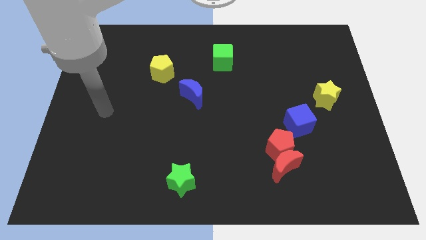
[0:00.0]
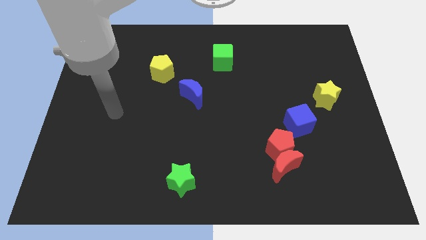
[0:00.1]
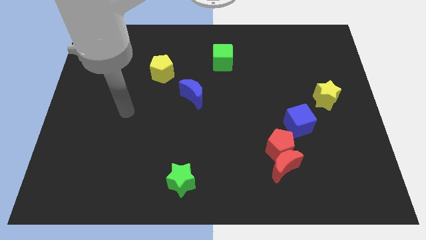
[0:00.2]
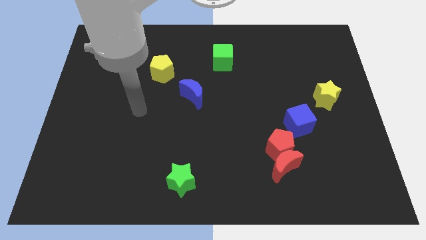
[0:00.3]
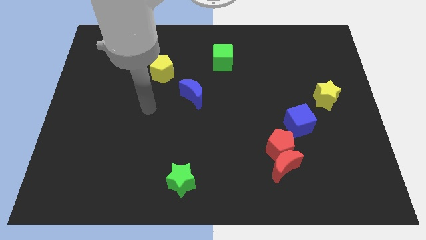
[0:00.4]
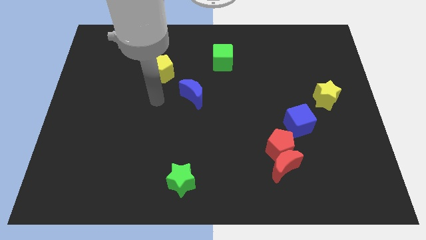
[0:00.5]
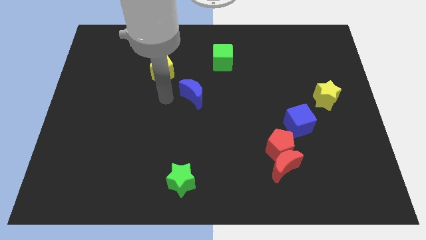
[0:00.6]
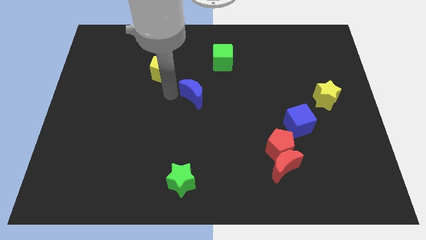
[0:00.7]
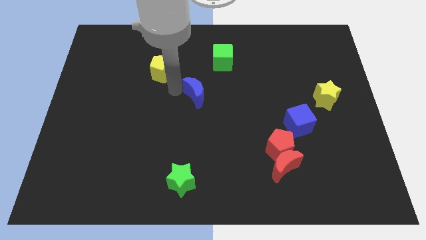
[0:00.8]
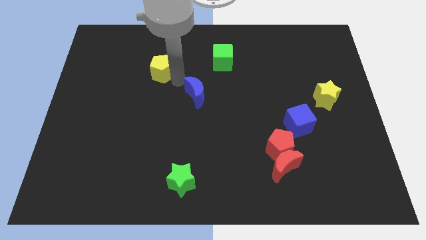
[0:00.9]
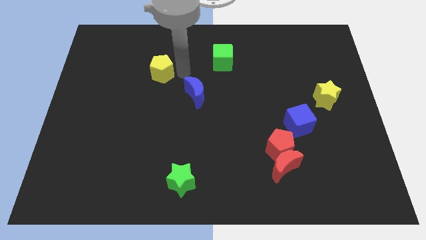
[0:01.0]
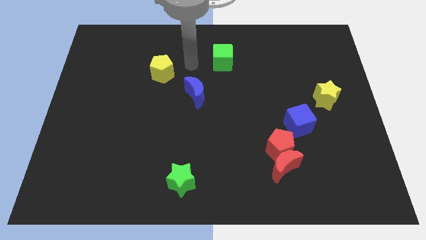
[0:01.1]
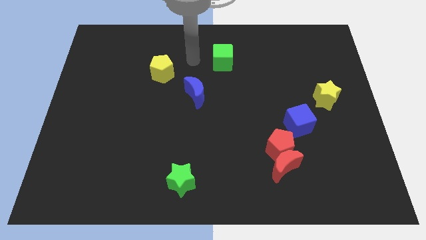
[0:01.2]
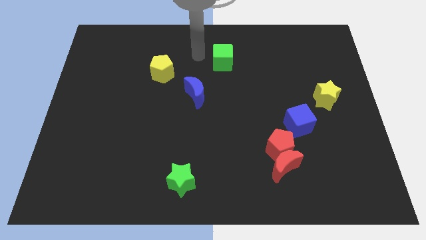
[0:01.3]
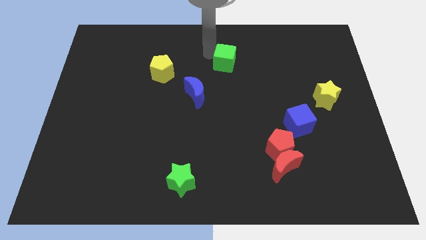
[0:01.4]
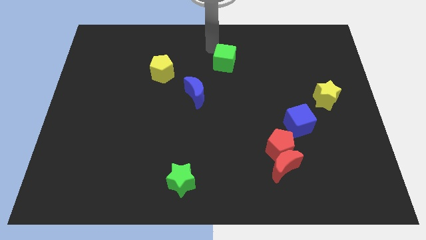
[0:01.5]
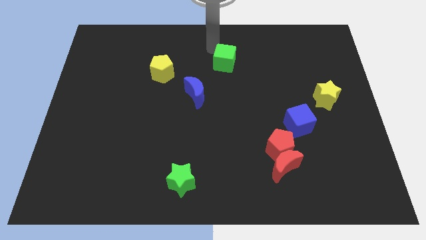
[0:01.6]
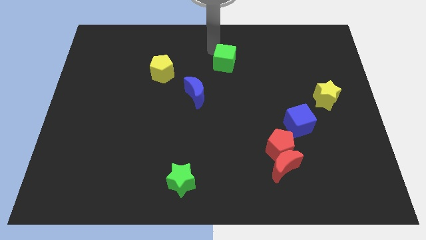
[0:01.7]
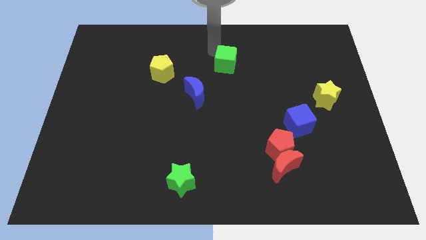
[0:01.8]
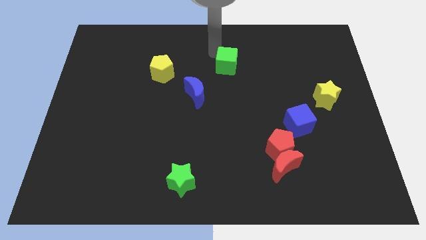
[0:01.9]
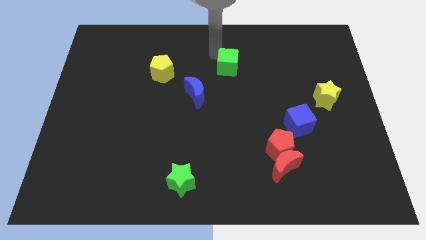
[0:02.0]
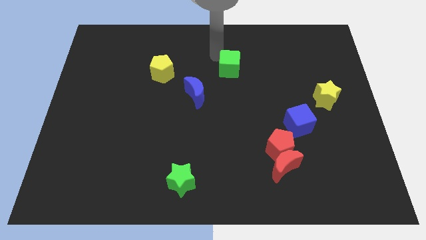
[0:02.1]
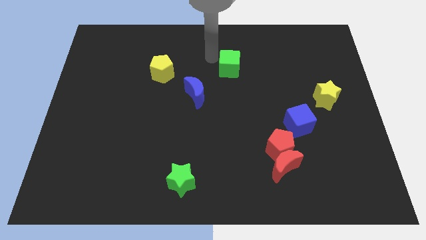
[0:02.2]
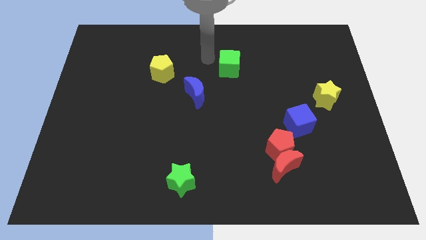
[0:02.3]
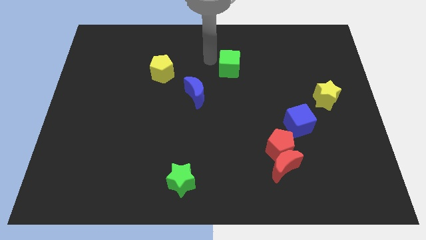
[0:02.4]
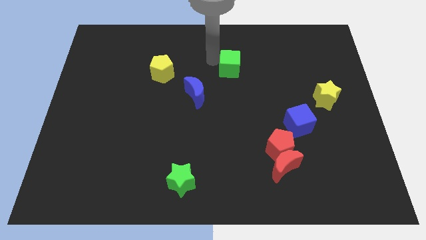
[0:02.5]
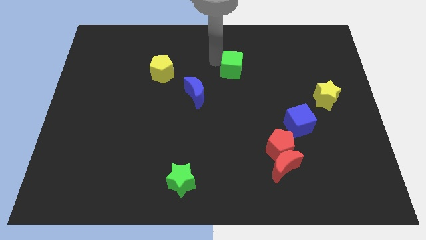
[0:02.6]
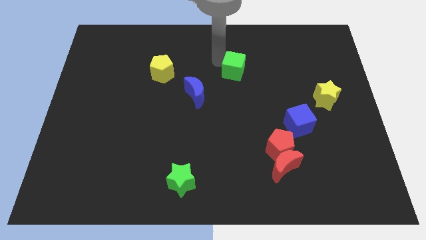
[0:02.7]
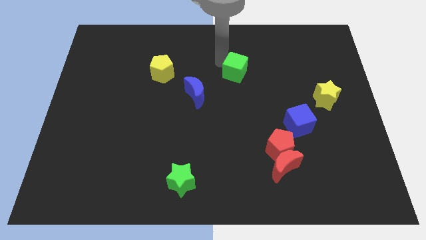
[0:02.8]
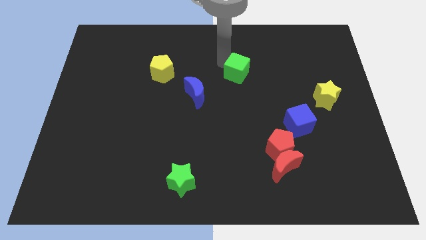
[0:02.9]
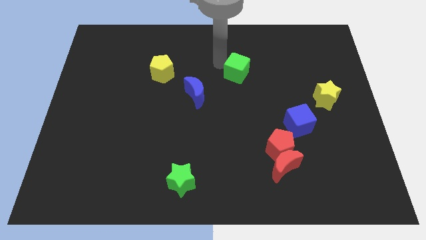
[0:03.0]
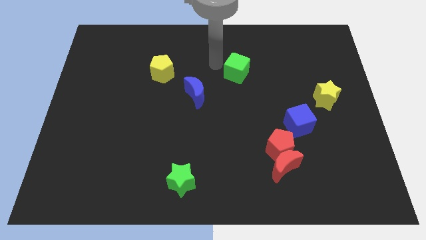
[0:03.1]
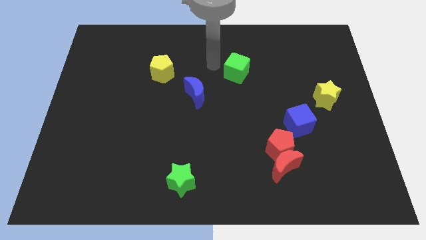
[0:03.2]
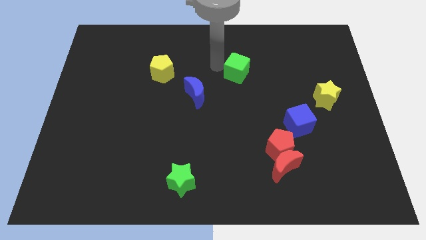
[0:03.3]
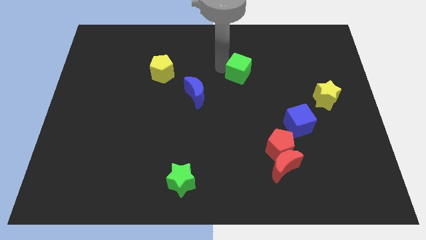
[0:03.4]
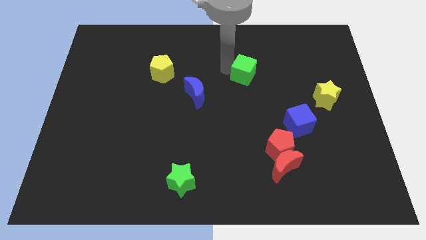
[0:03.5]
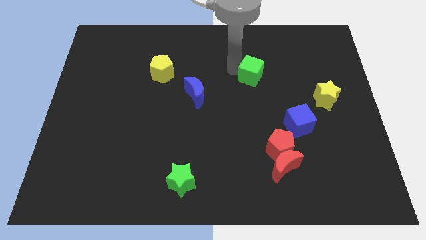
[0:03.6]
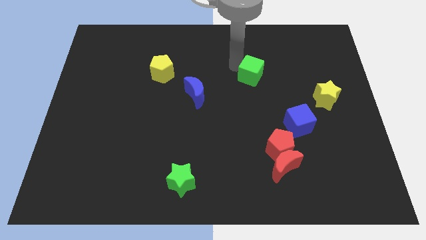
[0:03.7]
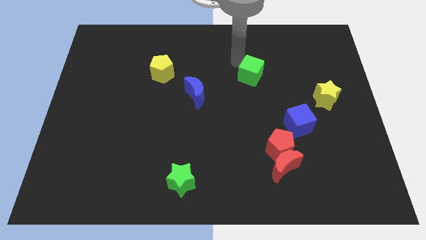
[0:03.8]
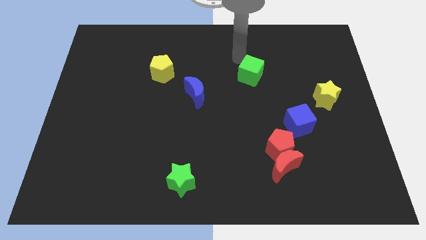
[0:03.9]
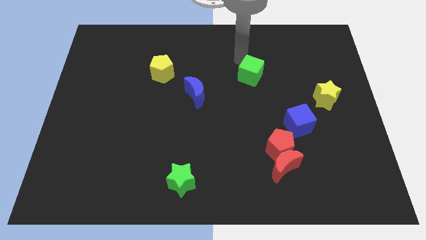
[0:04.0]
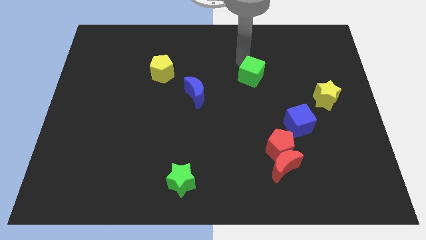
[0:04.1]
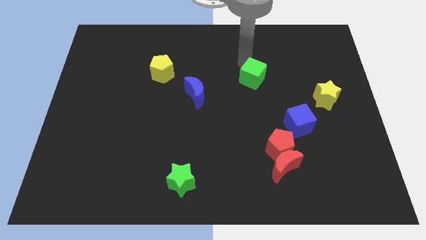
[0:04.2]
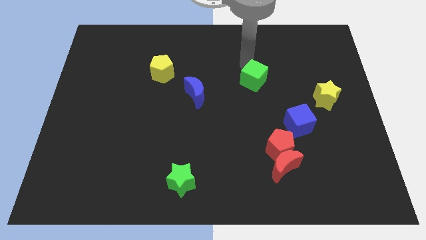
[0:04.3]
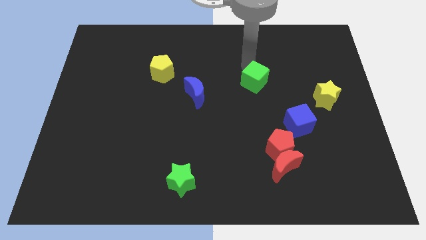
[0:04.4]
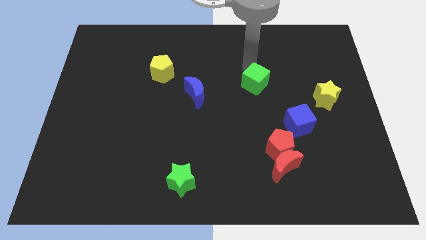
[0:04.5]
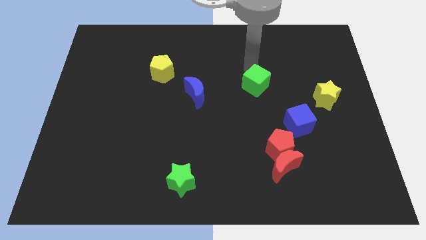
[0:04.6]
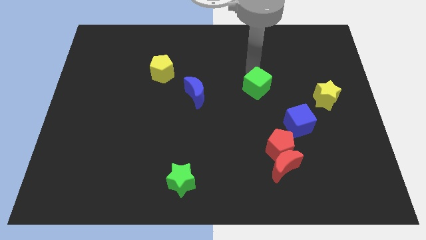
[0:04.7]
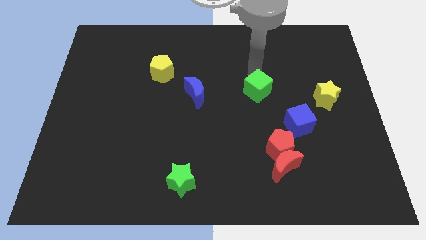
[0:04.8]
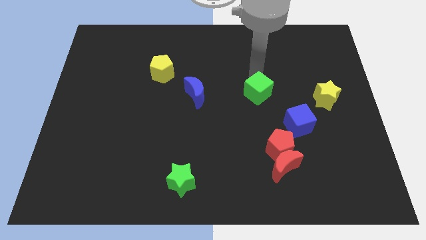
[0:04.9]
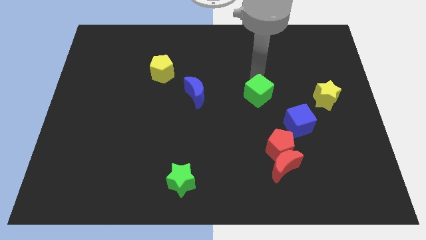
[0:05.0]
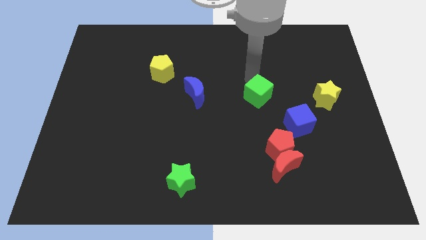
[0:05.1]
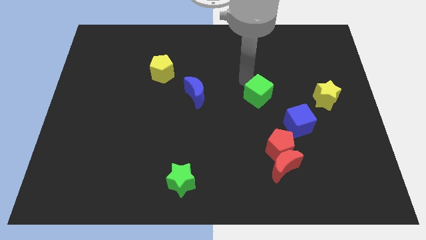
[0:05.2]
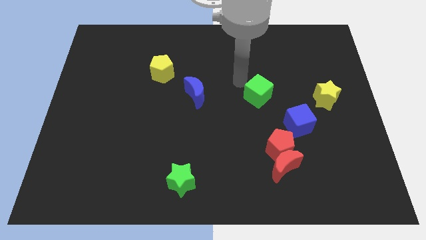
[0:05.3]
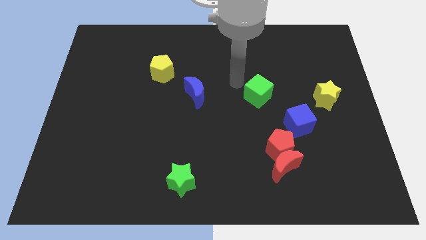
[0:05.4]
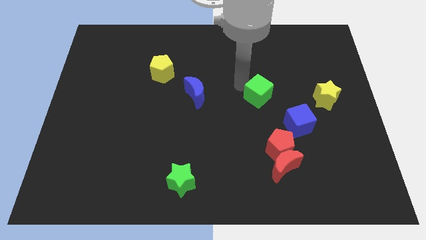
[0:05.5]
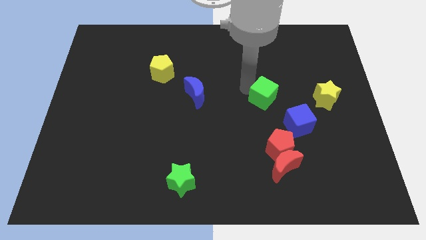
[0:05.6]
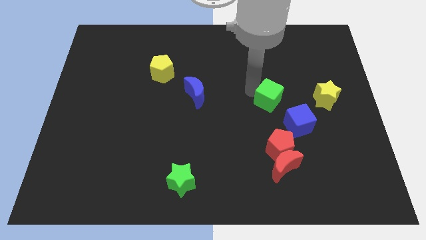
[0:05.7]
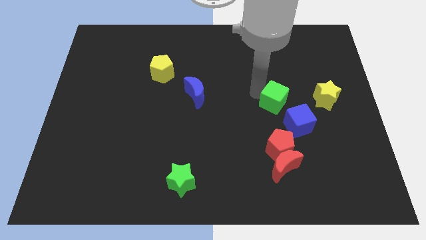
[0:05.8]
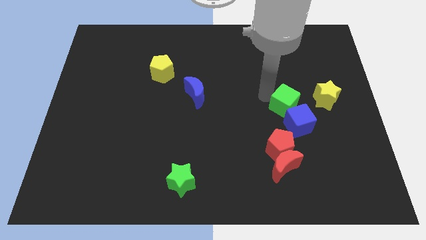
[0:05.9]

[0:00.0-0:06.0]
move the green cube close to the blue cube

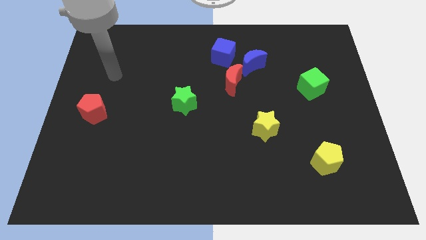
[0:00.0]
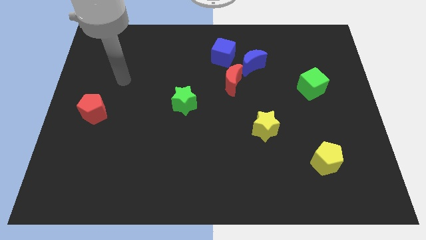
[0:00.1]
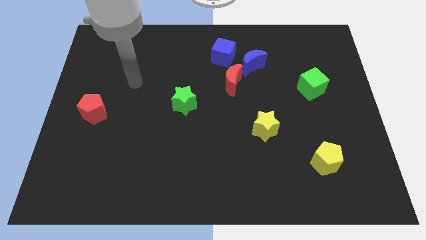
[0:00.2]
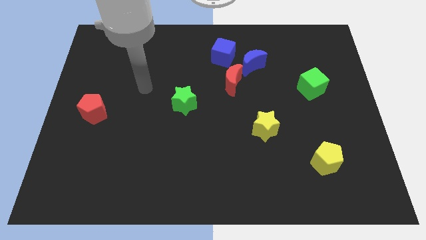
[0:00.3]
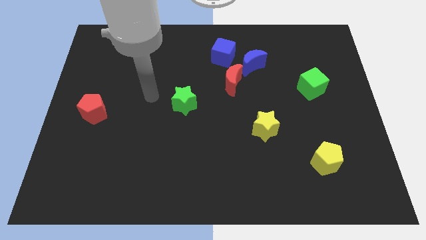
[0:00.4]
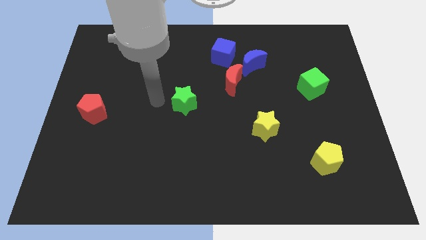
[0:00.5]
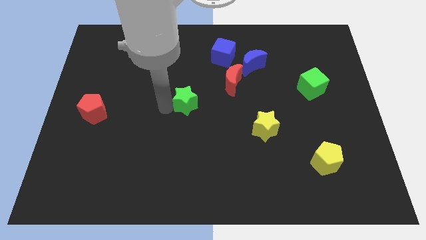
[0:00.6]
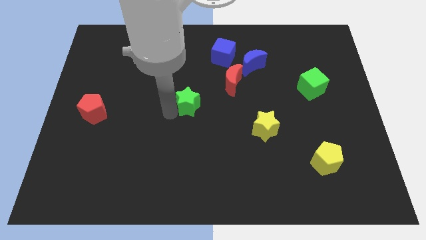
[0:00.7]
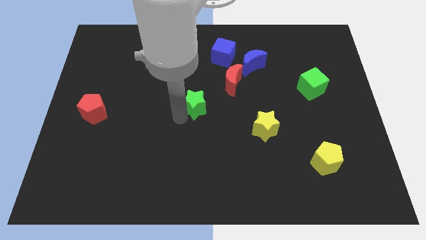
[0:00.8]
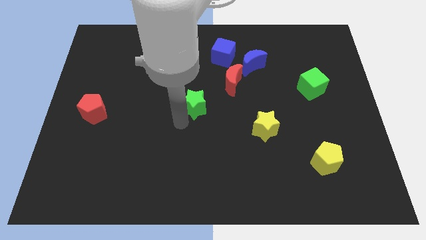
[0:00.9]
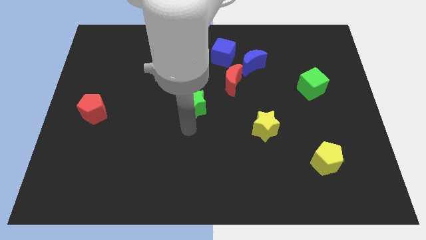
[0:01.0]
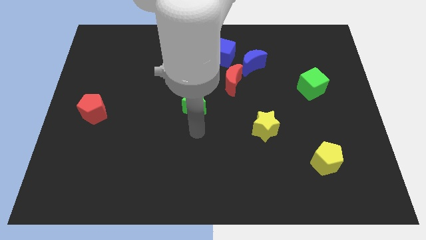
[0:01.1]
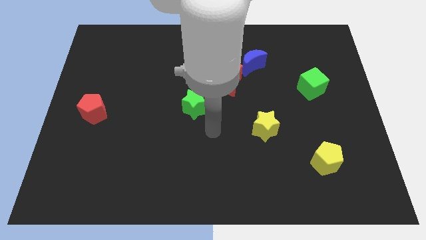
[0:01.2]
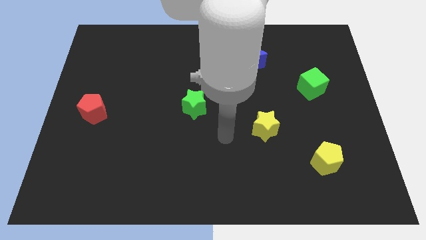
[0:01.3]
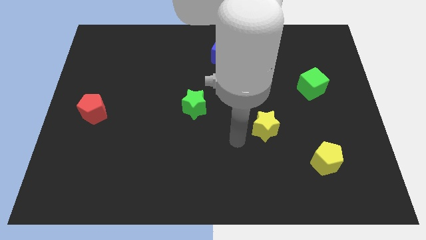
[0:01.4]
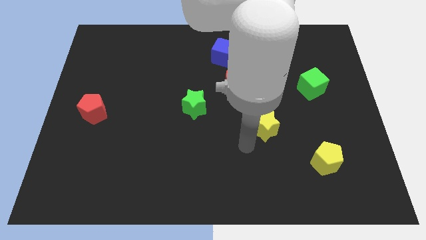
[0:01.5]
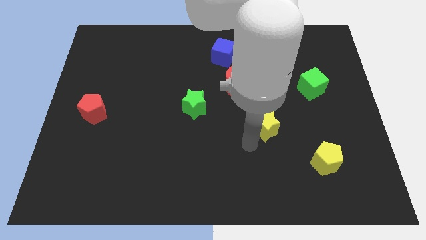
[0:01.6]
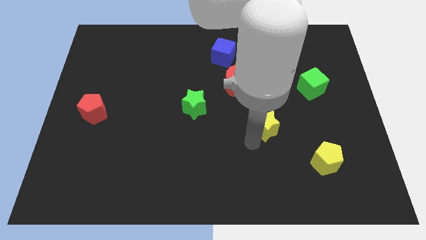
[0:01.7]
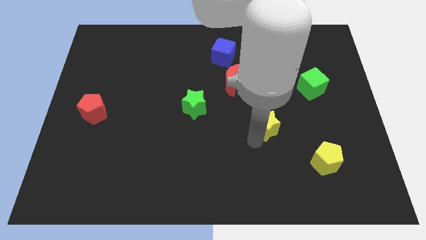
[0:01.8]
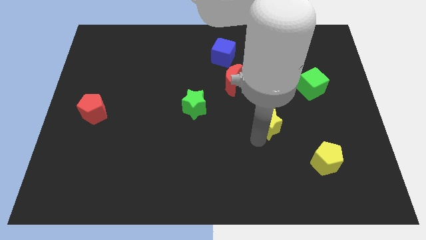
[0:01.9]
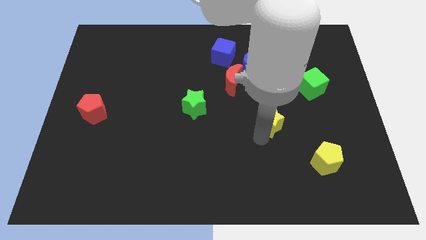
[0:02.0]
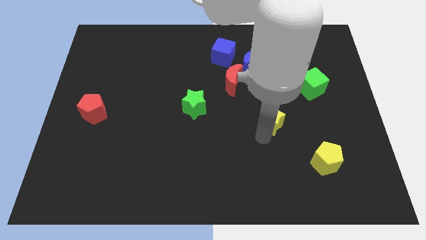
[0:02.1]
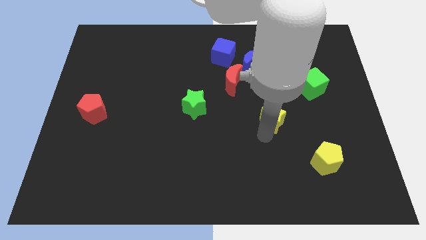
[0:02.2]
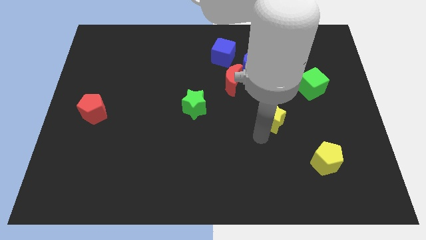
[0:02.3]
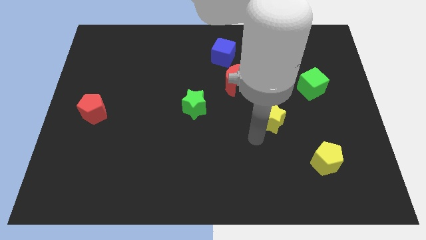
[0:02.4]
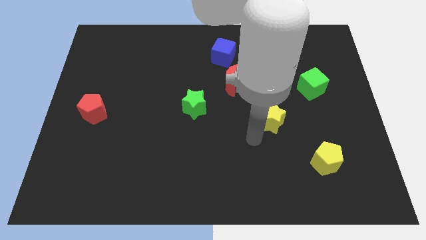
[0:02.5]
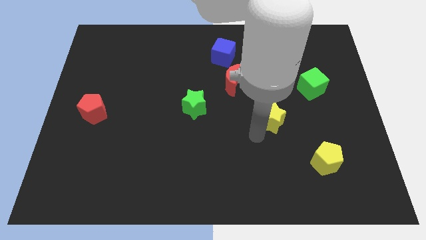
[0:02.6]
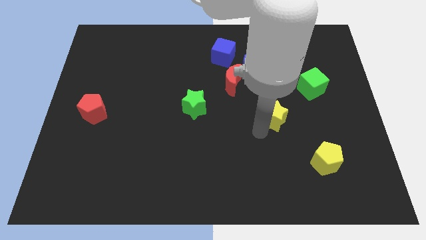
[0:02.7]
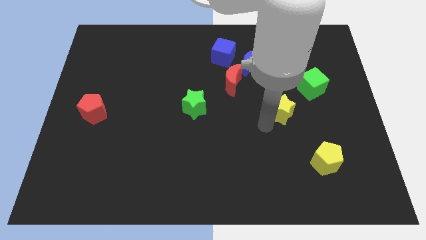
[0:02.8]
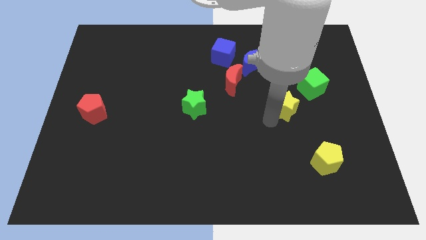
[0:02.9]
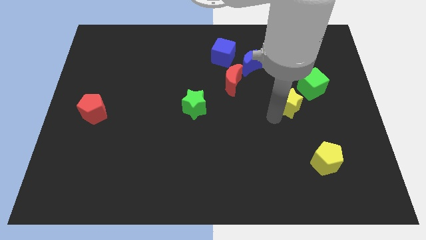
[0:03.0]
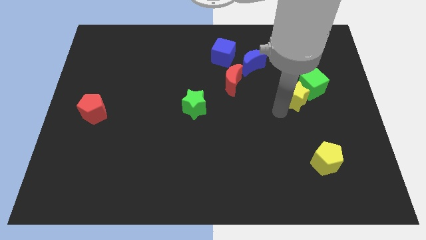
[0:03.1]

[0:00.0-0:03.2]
push the yellow star towards the green cube
